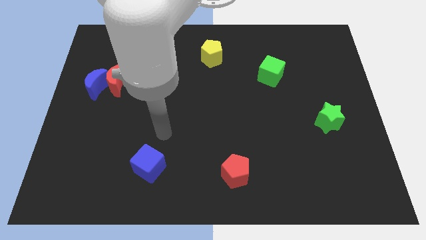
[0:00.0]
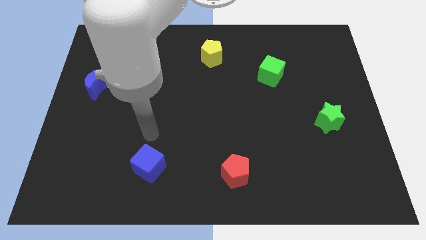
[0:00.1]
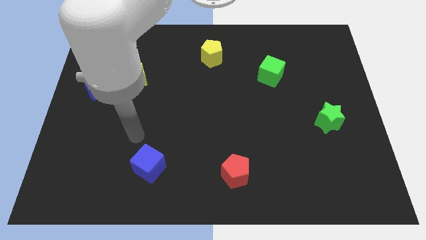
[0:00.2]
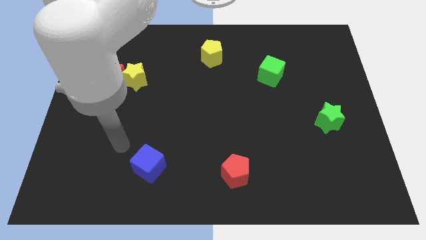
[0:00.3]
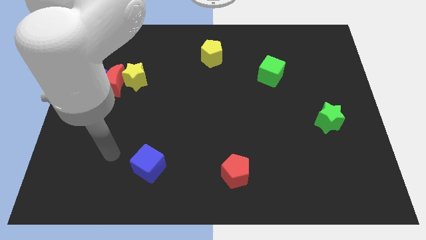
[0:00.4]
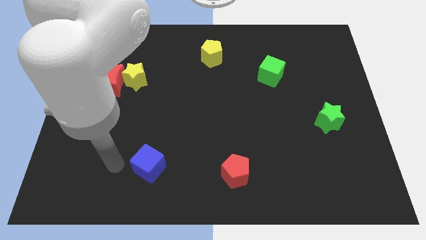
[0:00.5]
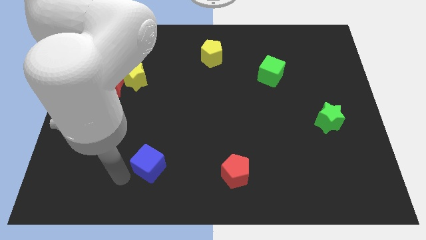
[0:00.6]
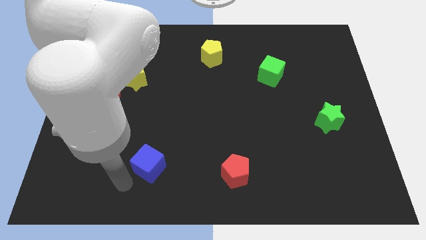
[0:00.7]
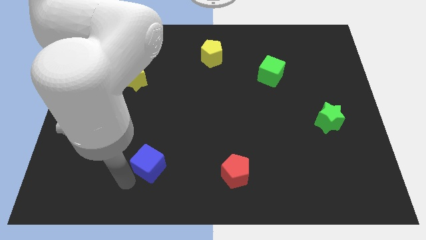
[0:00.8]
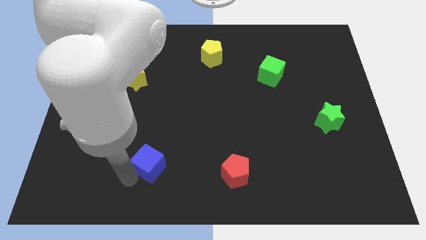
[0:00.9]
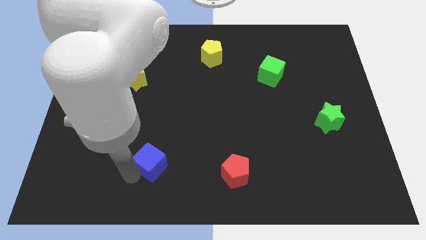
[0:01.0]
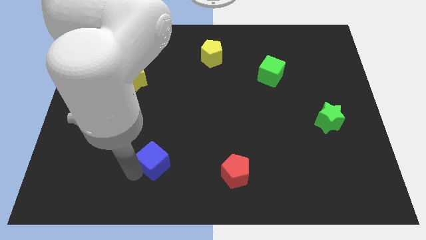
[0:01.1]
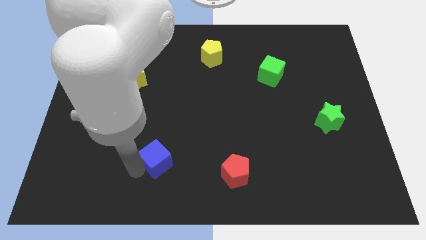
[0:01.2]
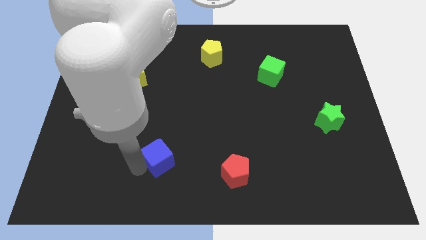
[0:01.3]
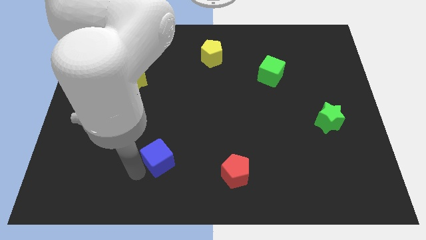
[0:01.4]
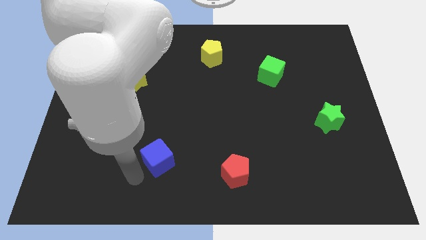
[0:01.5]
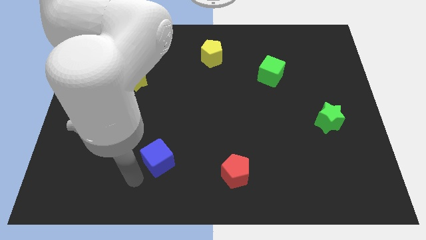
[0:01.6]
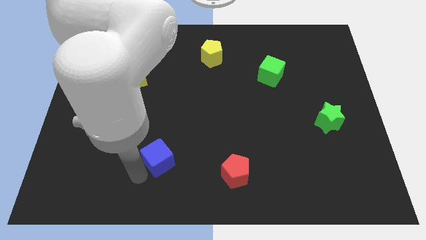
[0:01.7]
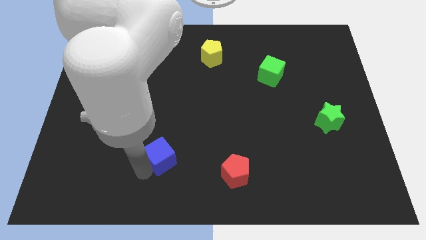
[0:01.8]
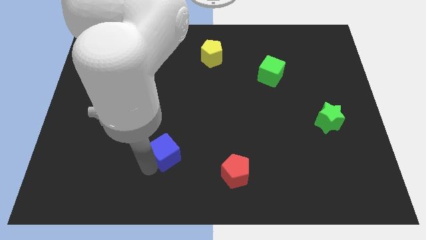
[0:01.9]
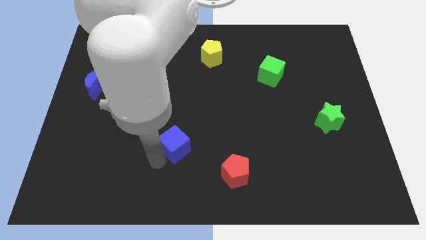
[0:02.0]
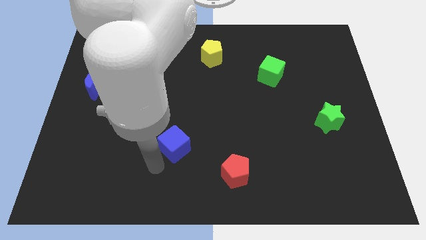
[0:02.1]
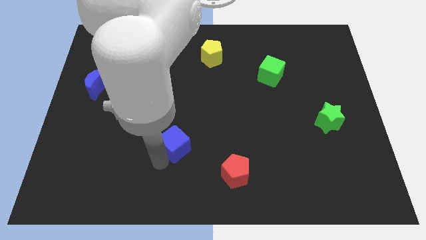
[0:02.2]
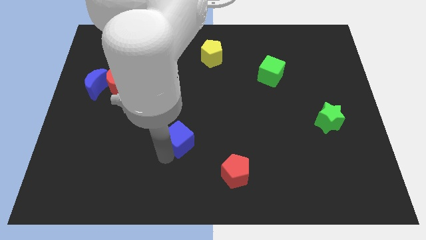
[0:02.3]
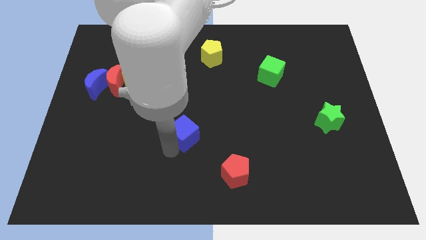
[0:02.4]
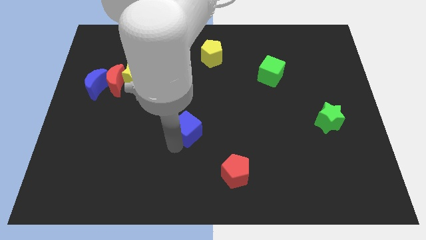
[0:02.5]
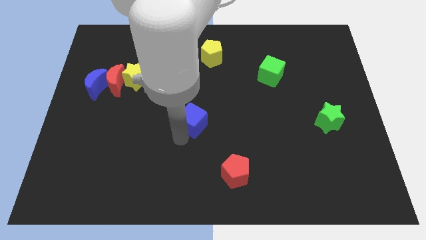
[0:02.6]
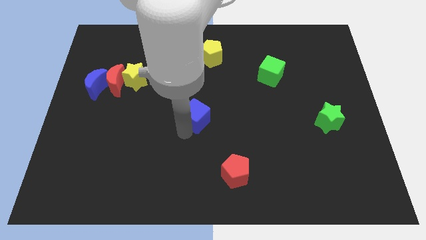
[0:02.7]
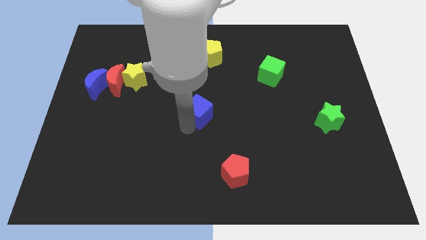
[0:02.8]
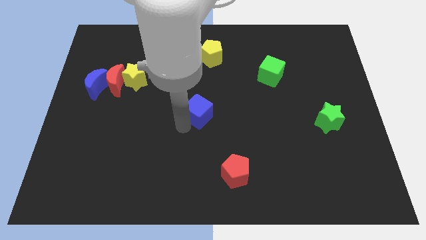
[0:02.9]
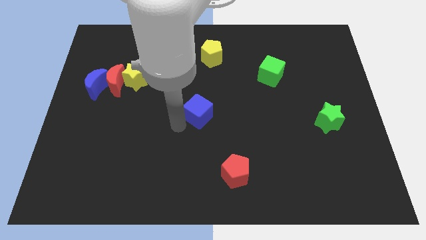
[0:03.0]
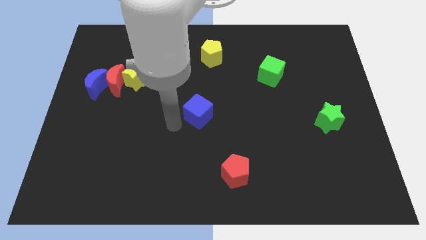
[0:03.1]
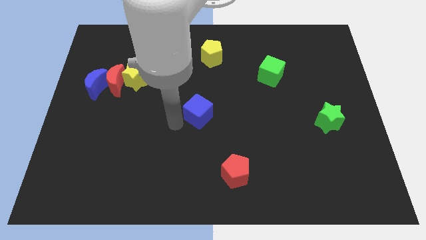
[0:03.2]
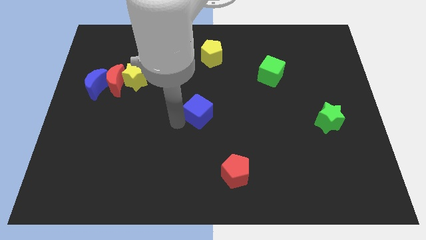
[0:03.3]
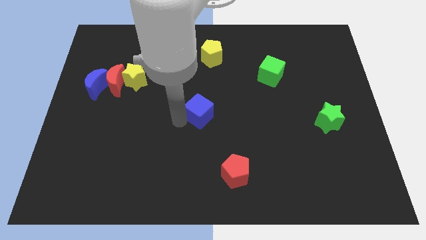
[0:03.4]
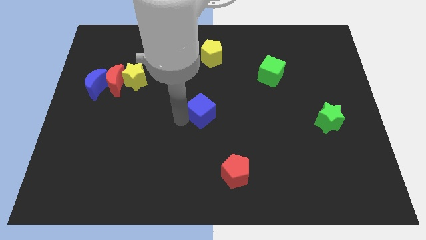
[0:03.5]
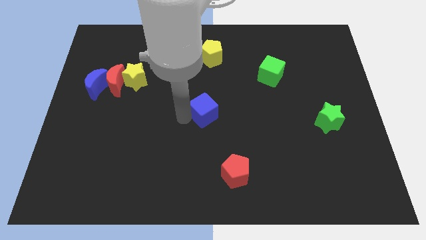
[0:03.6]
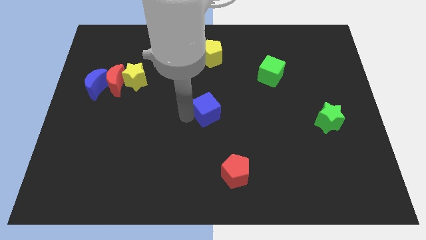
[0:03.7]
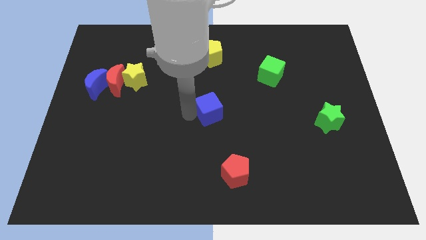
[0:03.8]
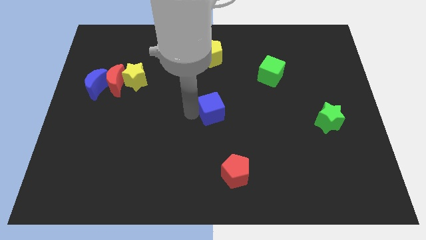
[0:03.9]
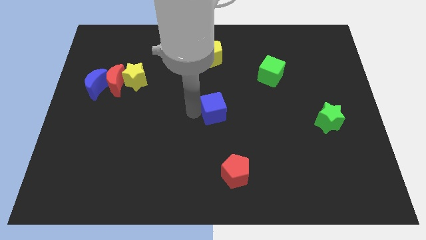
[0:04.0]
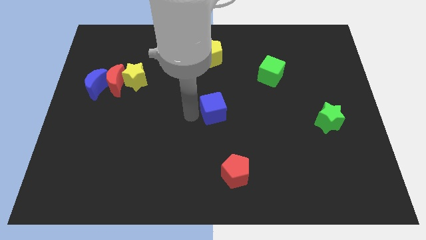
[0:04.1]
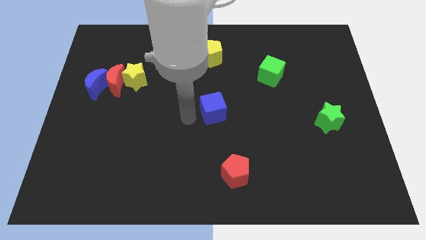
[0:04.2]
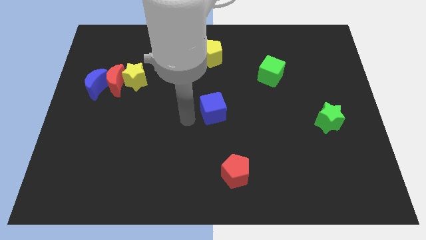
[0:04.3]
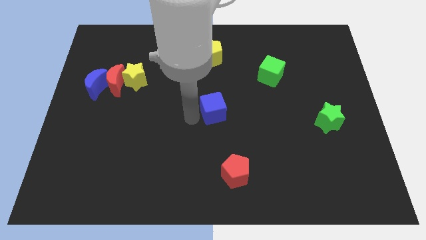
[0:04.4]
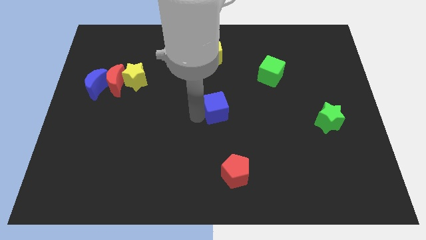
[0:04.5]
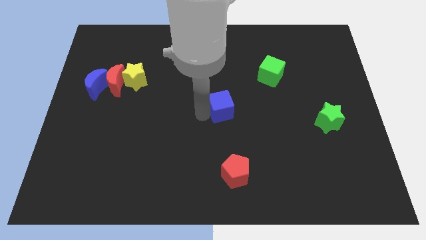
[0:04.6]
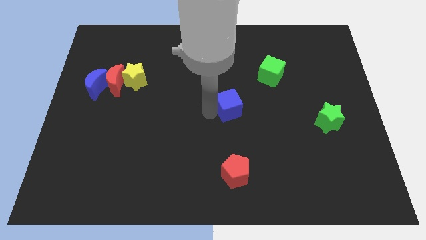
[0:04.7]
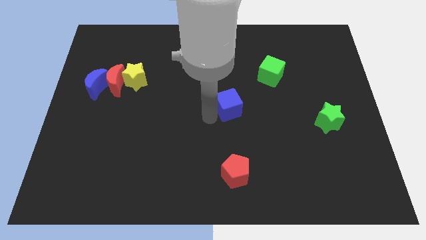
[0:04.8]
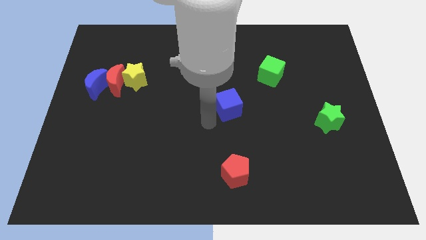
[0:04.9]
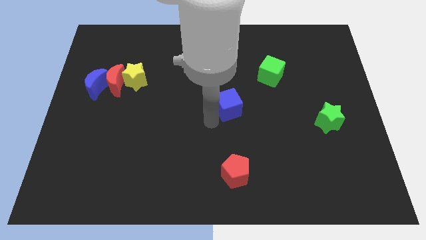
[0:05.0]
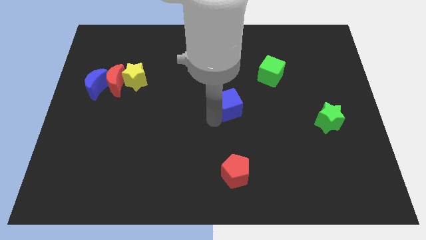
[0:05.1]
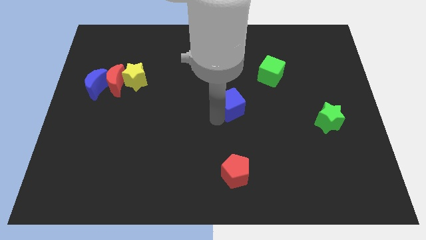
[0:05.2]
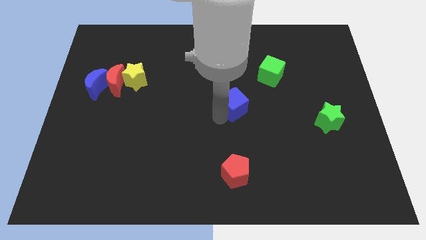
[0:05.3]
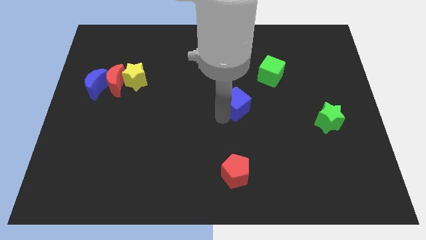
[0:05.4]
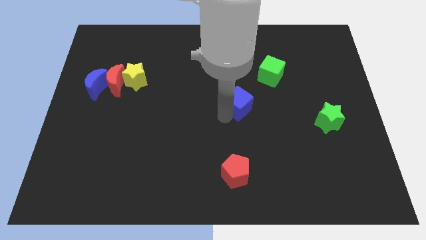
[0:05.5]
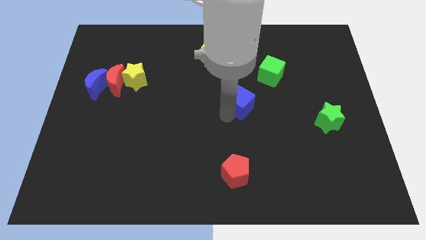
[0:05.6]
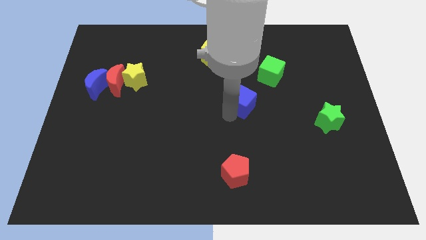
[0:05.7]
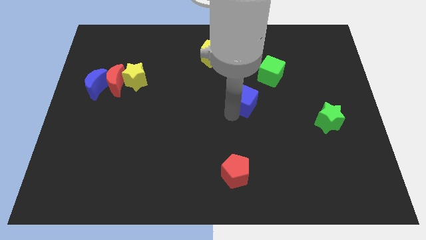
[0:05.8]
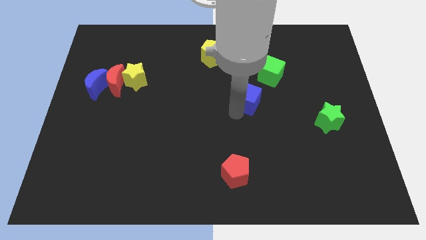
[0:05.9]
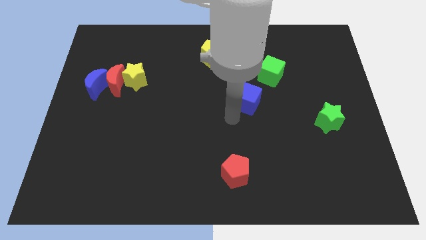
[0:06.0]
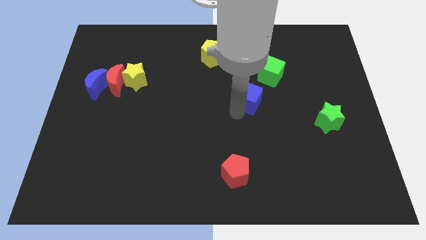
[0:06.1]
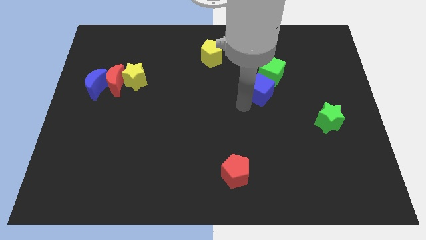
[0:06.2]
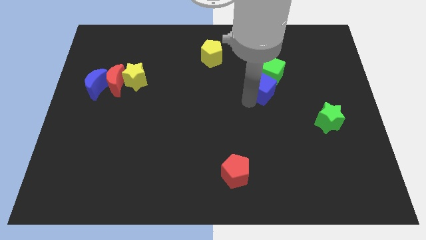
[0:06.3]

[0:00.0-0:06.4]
put the blue cube close to the green cube

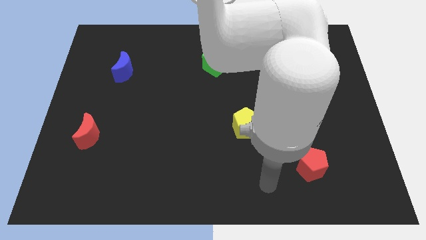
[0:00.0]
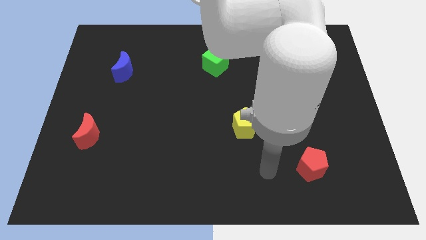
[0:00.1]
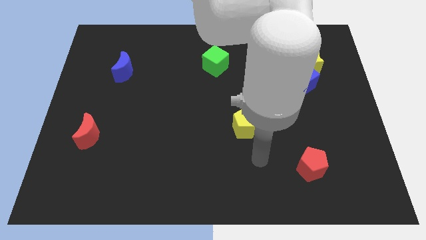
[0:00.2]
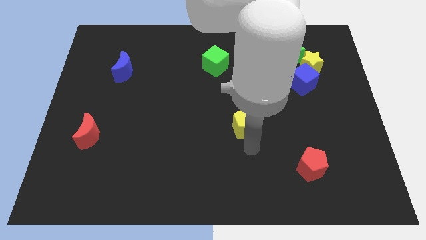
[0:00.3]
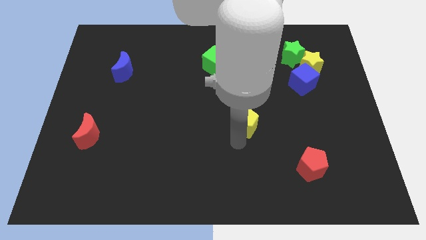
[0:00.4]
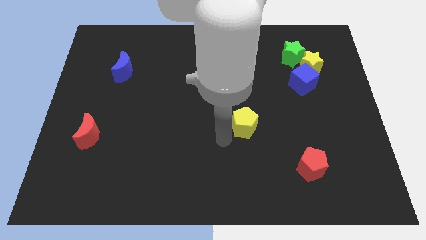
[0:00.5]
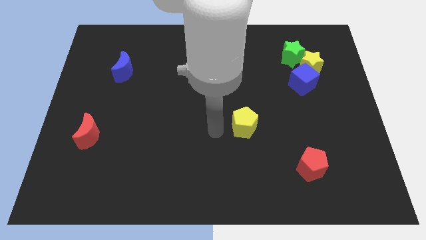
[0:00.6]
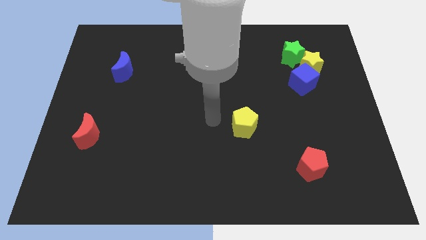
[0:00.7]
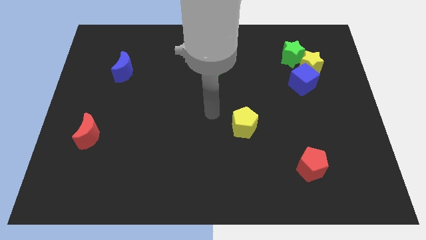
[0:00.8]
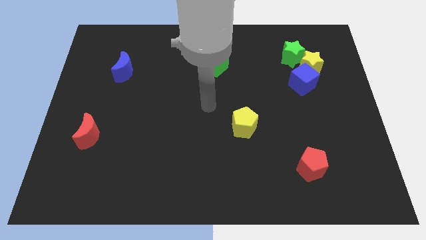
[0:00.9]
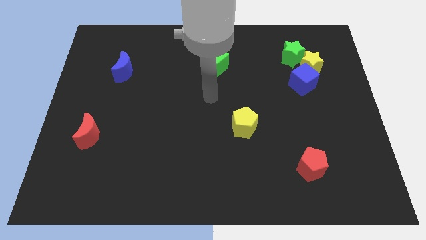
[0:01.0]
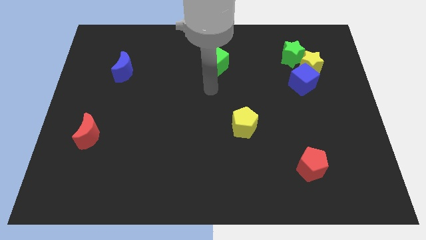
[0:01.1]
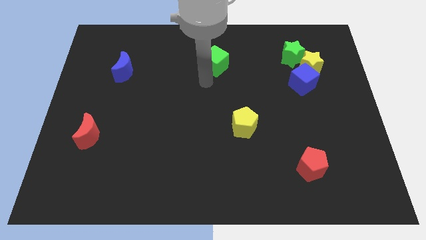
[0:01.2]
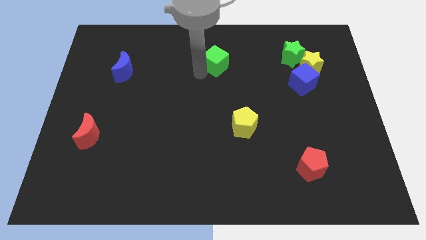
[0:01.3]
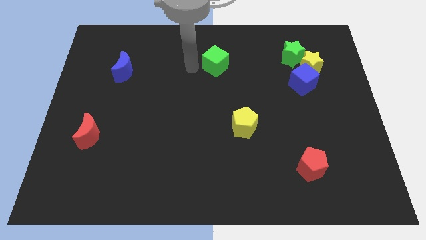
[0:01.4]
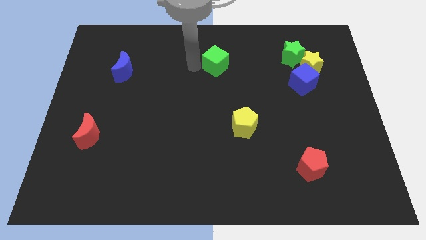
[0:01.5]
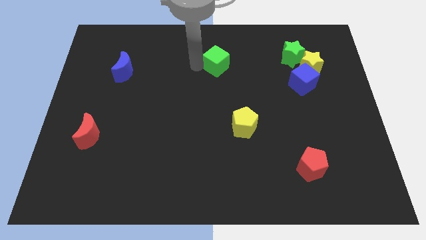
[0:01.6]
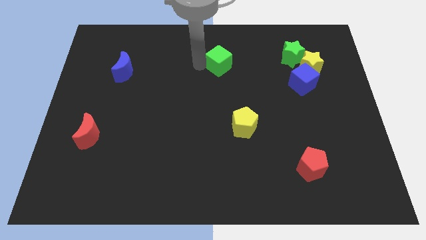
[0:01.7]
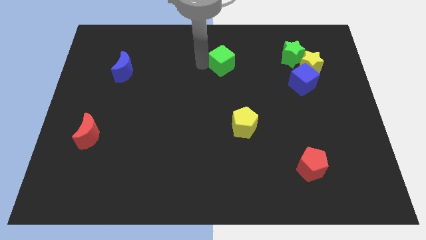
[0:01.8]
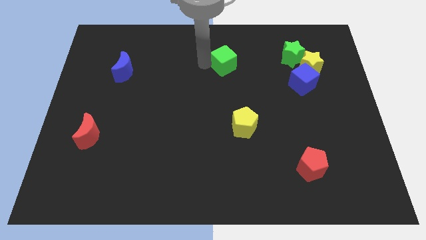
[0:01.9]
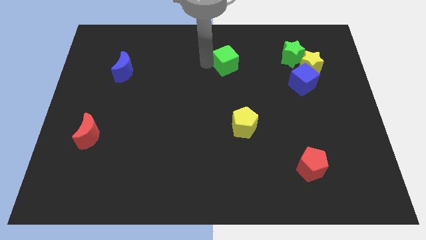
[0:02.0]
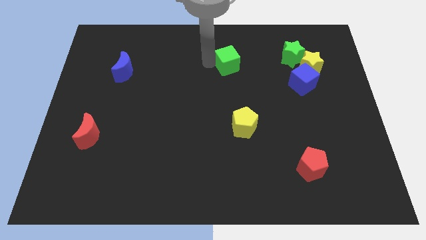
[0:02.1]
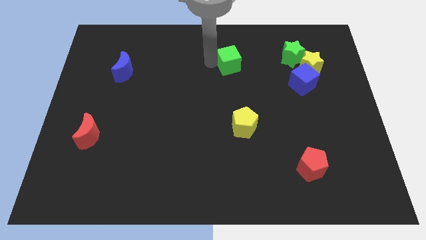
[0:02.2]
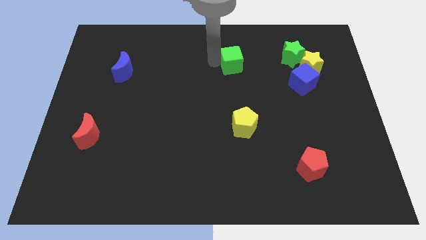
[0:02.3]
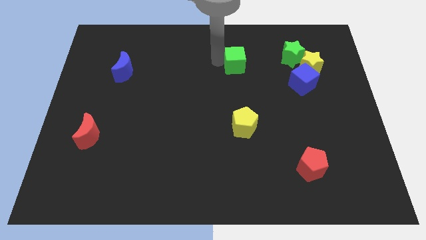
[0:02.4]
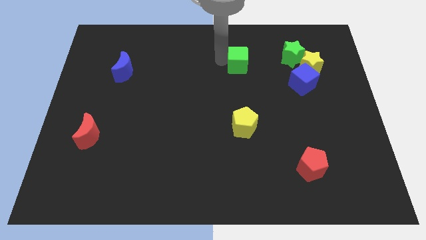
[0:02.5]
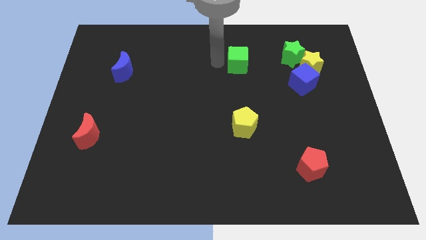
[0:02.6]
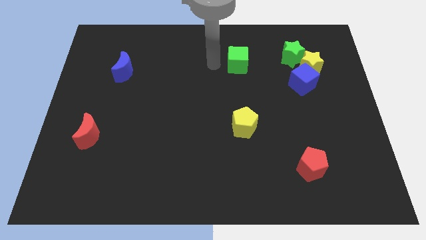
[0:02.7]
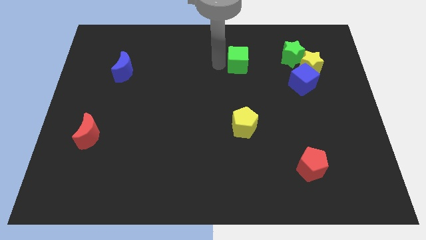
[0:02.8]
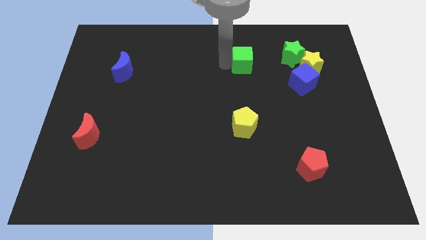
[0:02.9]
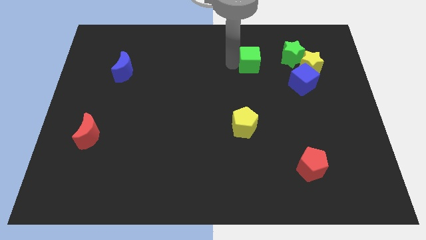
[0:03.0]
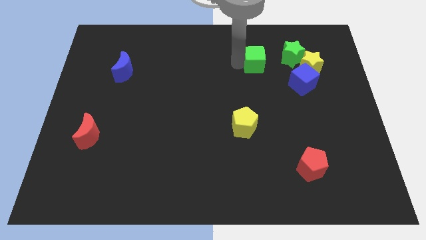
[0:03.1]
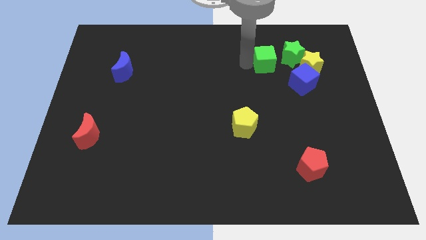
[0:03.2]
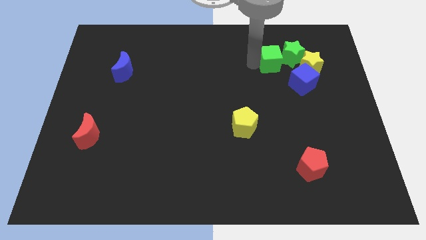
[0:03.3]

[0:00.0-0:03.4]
move the green cube towards the green star
